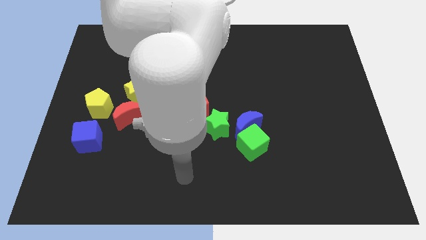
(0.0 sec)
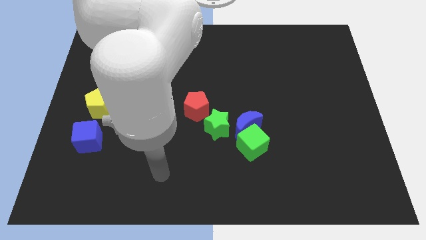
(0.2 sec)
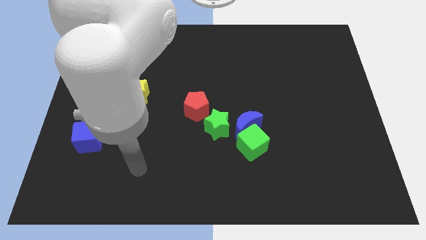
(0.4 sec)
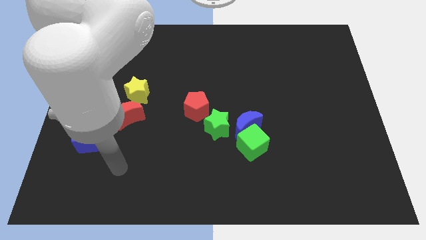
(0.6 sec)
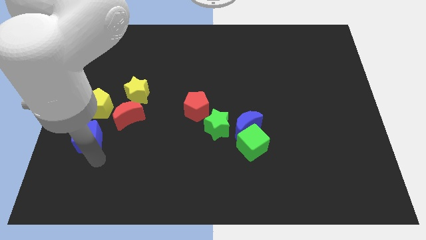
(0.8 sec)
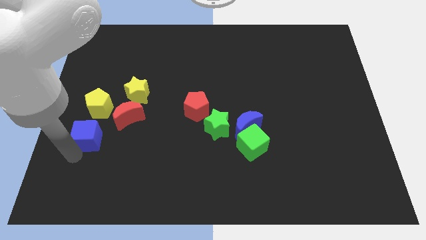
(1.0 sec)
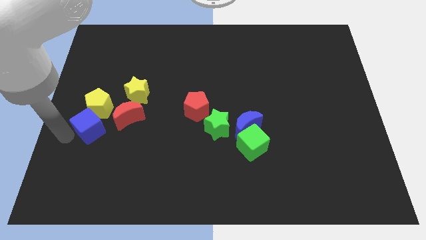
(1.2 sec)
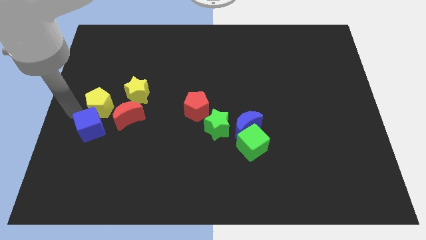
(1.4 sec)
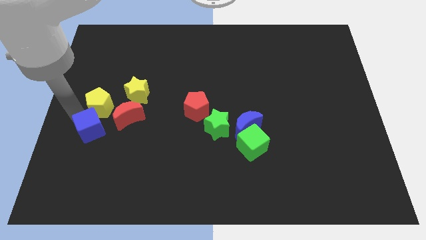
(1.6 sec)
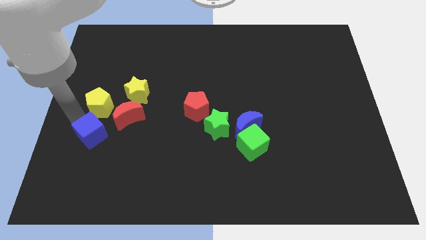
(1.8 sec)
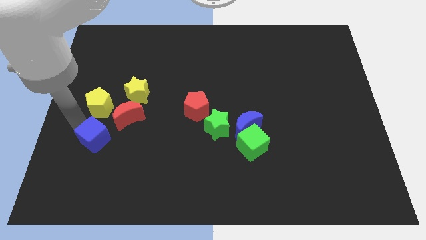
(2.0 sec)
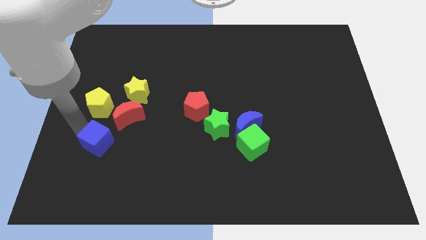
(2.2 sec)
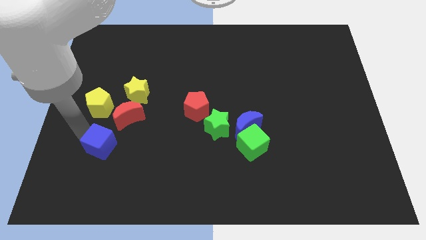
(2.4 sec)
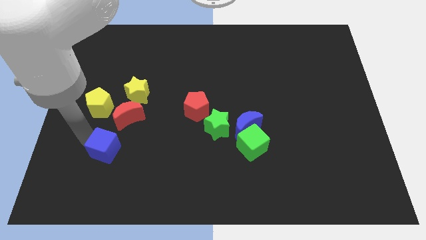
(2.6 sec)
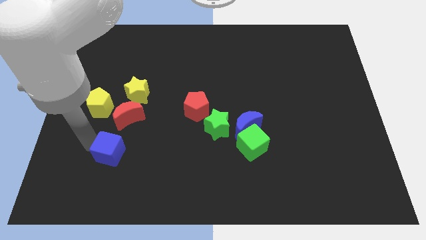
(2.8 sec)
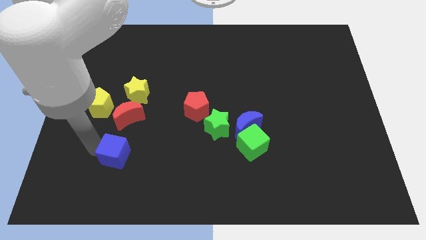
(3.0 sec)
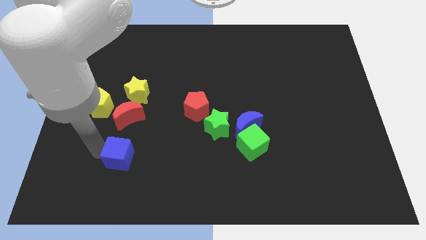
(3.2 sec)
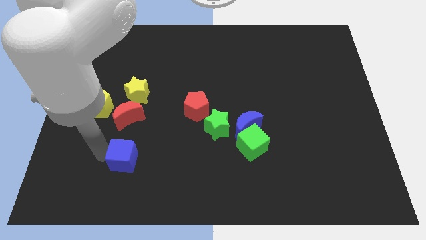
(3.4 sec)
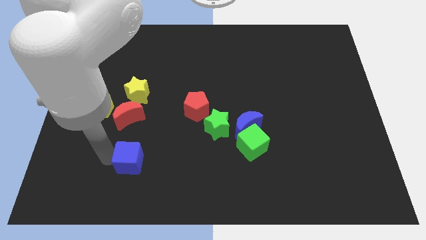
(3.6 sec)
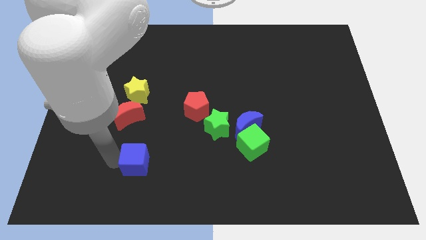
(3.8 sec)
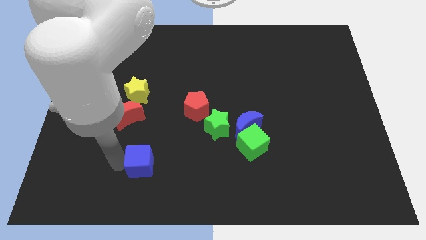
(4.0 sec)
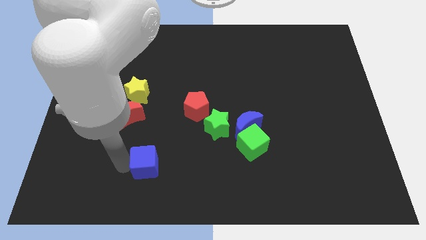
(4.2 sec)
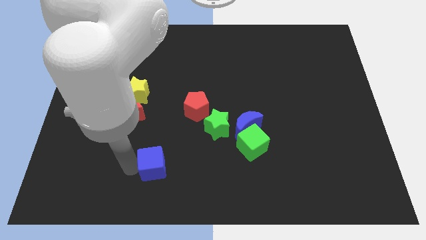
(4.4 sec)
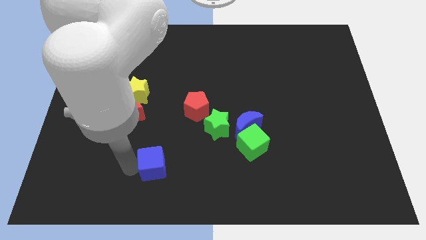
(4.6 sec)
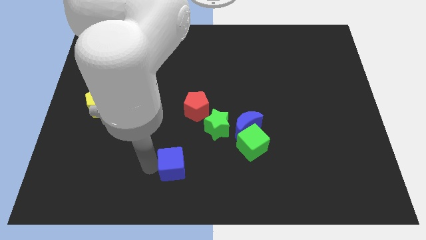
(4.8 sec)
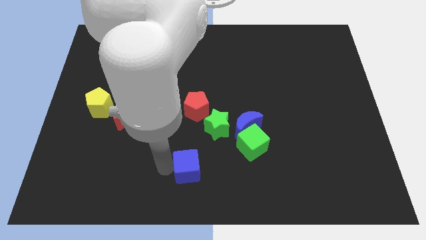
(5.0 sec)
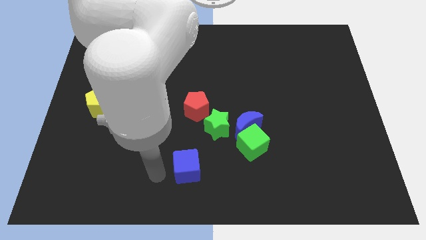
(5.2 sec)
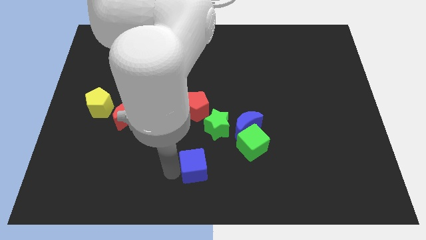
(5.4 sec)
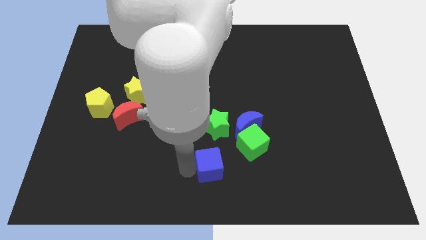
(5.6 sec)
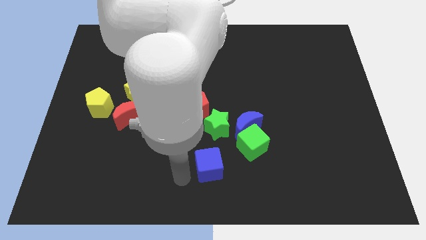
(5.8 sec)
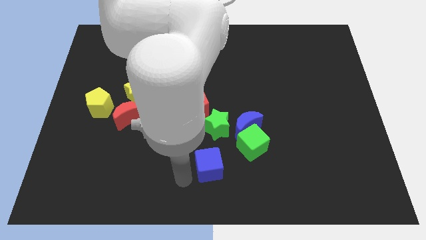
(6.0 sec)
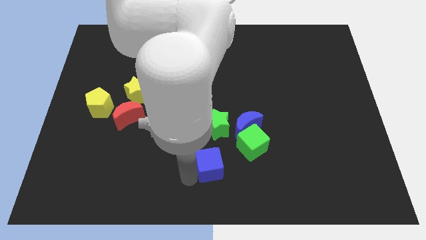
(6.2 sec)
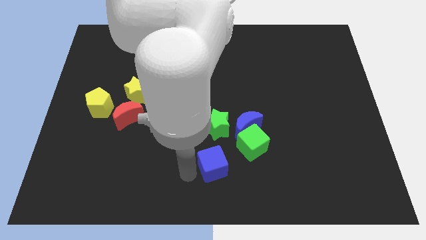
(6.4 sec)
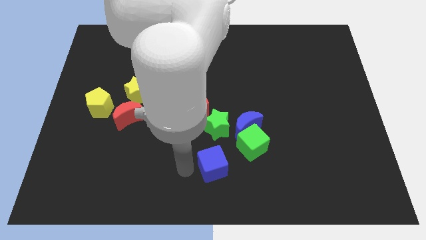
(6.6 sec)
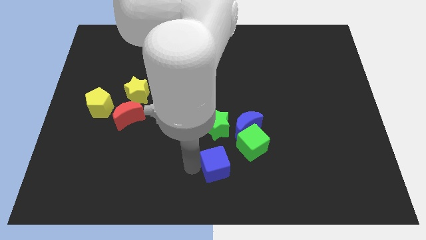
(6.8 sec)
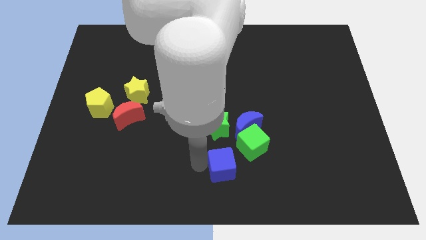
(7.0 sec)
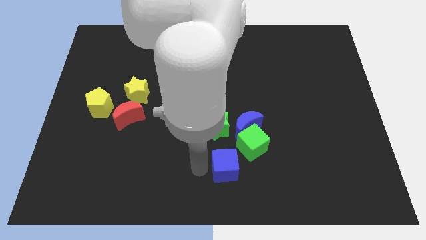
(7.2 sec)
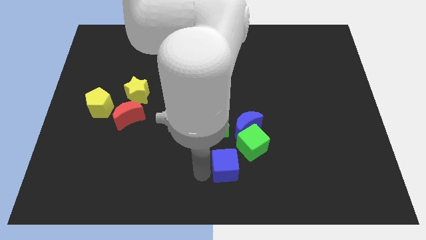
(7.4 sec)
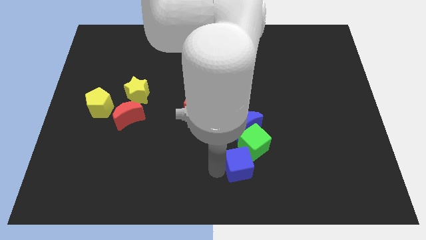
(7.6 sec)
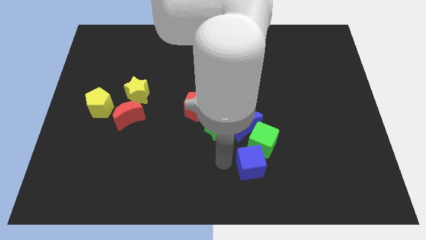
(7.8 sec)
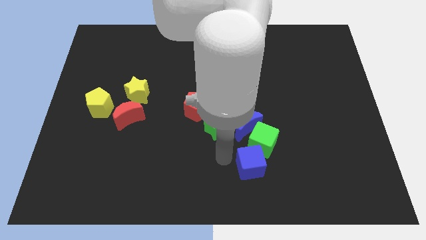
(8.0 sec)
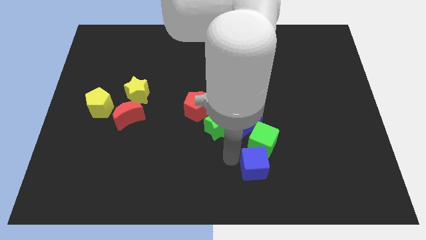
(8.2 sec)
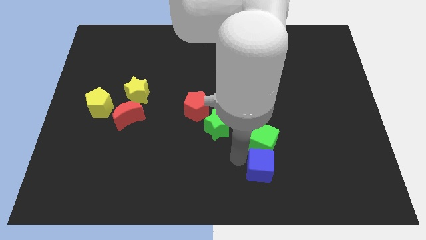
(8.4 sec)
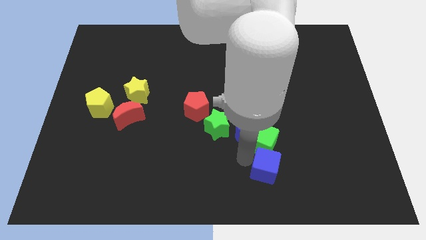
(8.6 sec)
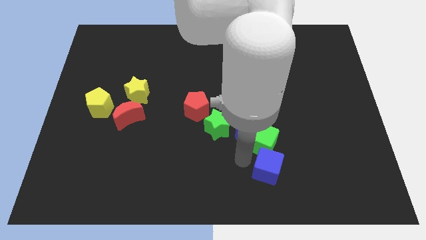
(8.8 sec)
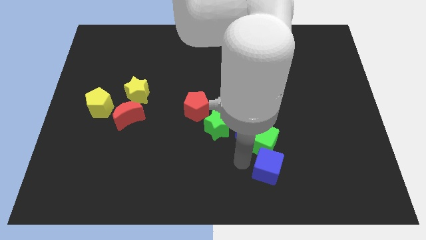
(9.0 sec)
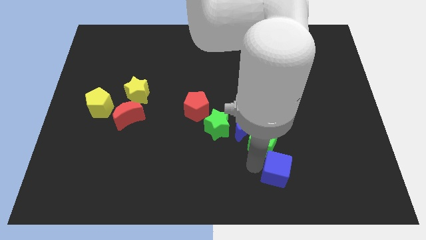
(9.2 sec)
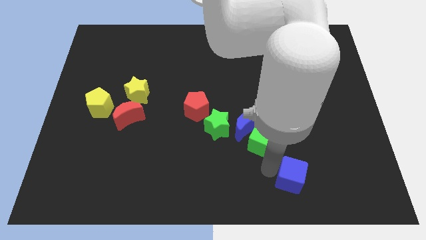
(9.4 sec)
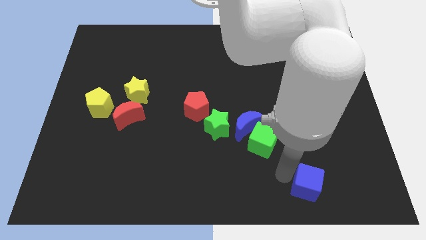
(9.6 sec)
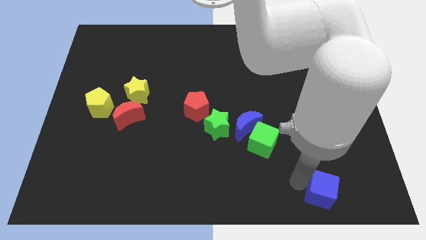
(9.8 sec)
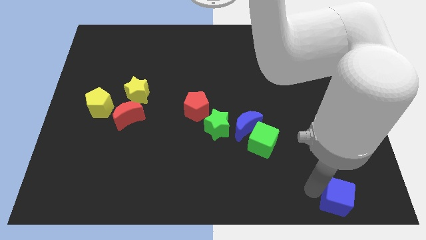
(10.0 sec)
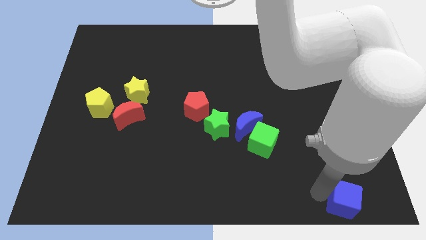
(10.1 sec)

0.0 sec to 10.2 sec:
move the blue cube to the bottom right
